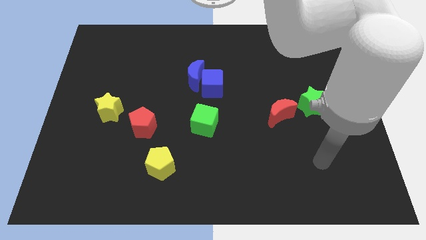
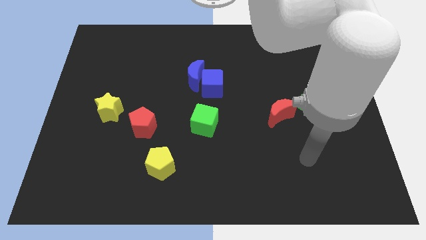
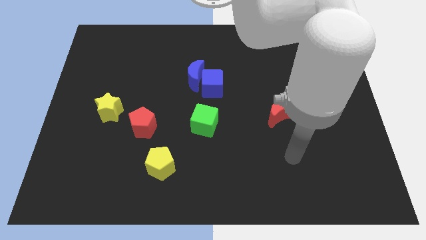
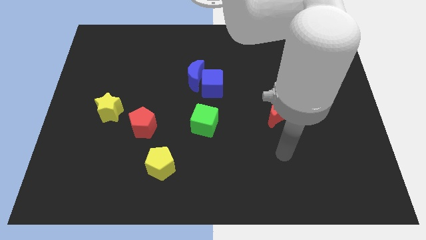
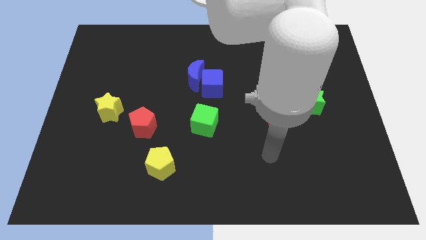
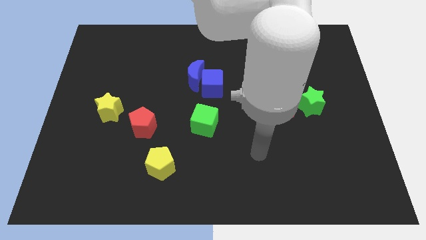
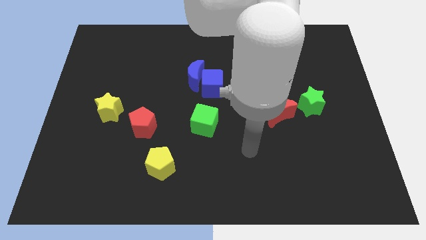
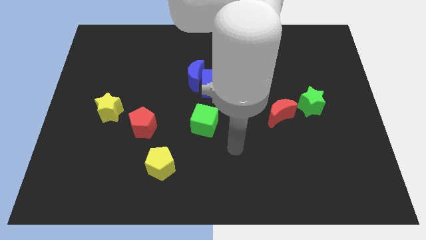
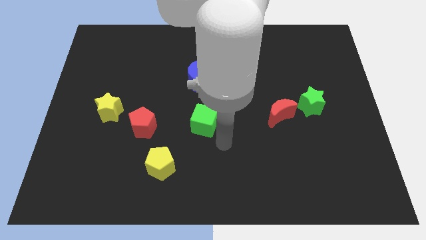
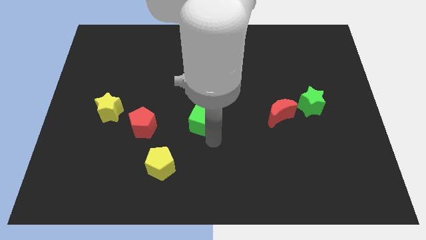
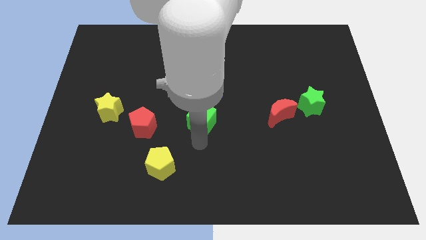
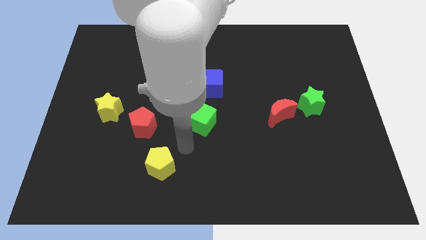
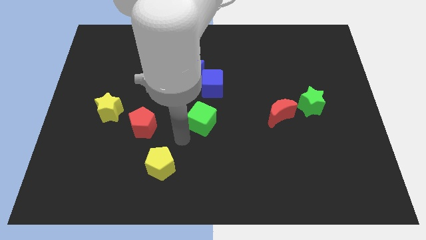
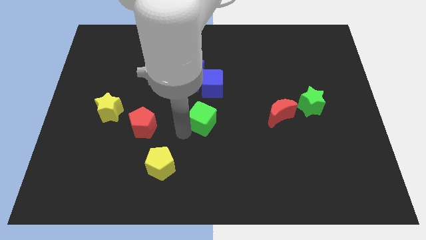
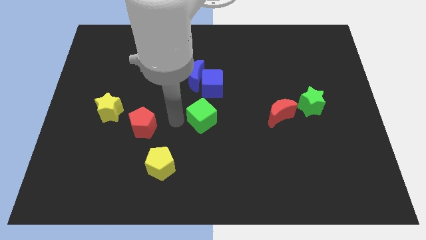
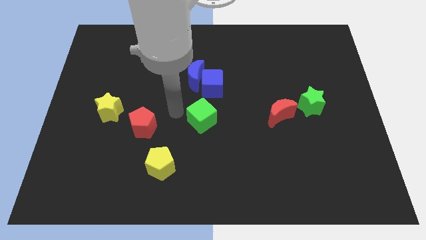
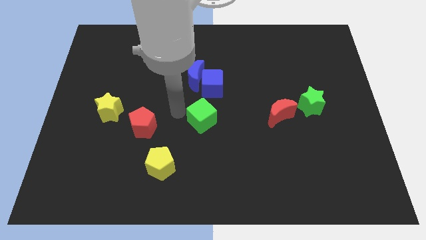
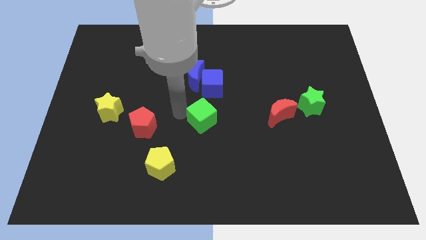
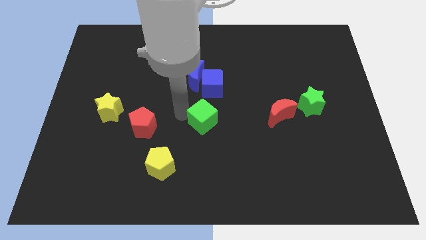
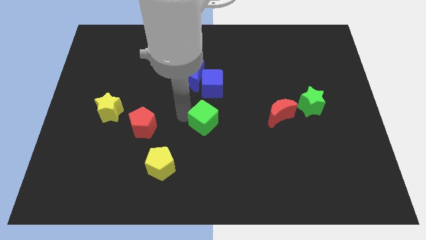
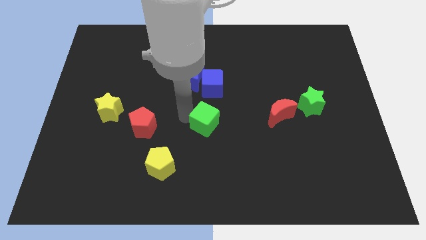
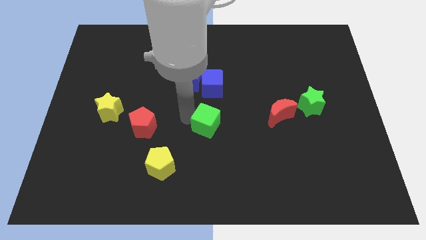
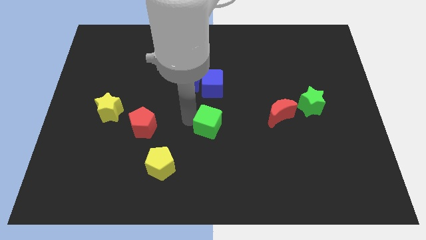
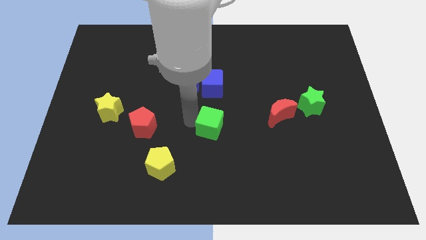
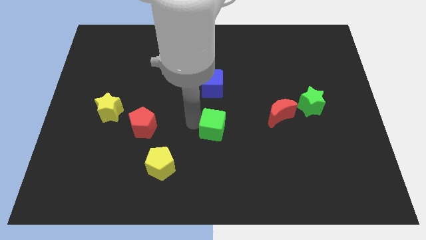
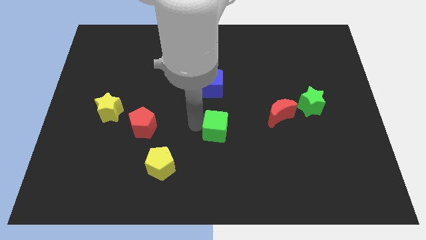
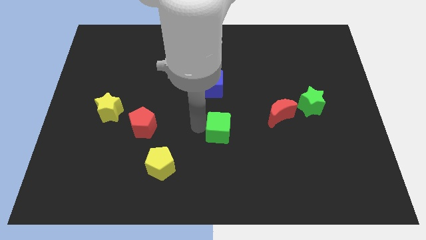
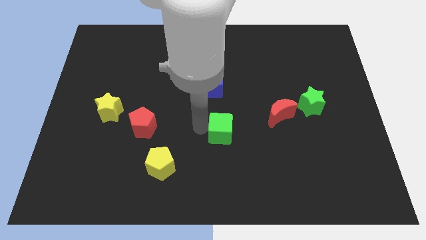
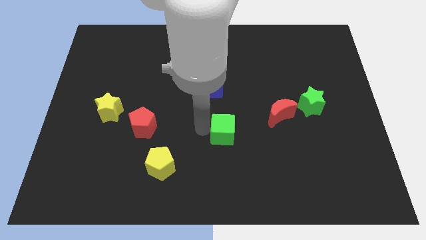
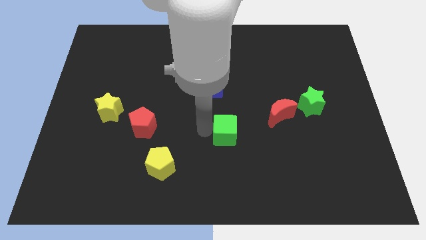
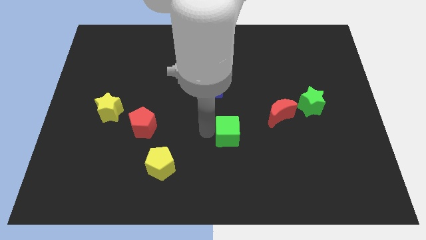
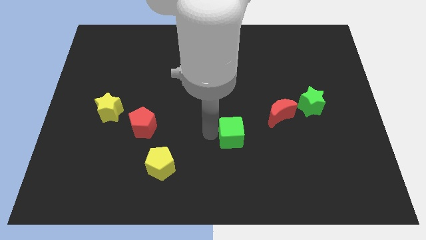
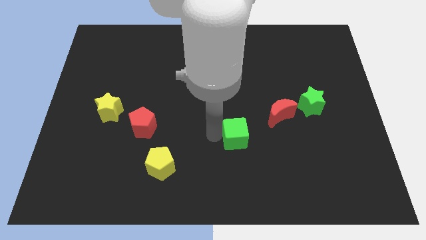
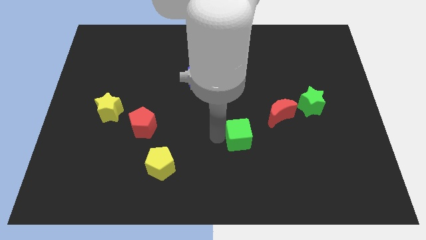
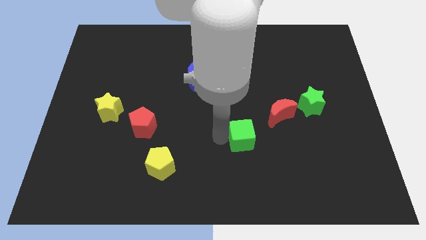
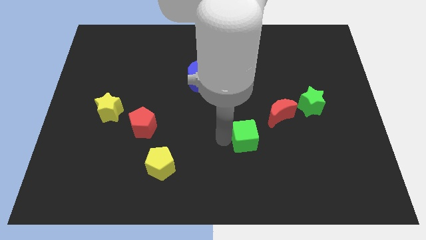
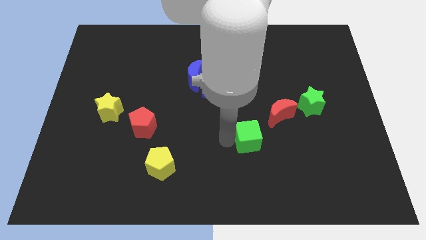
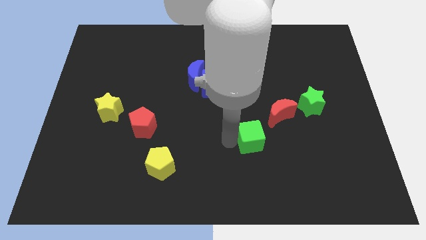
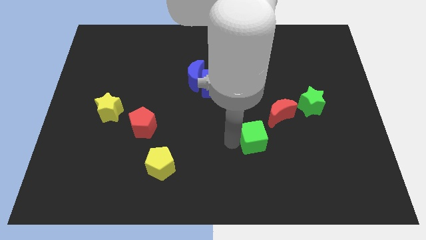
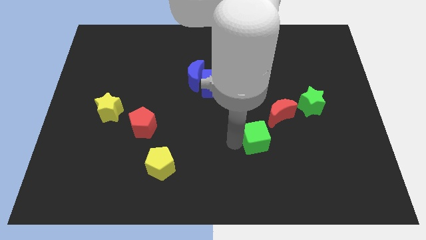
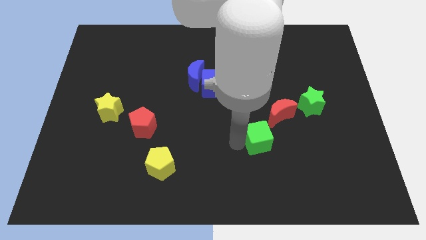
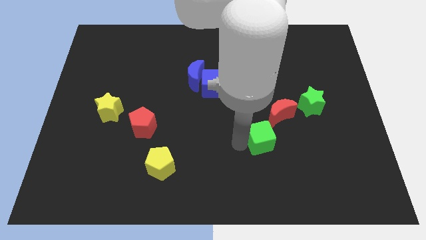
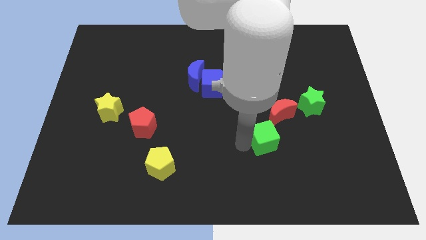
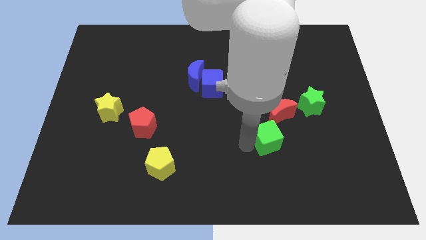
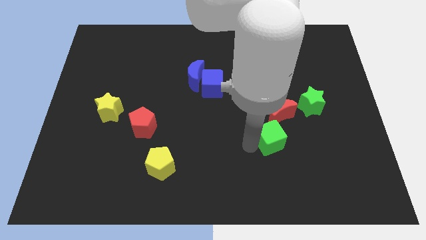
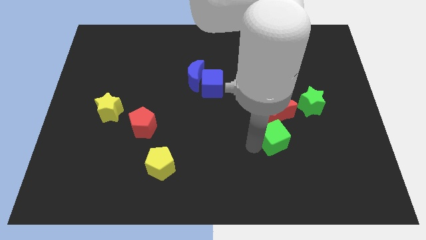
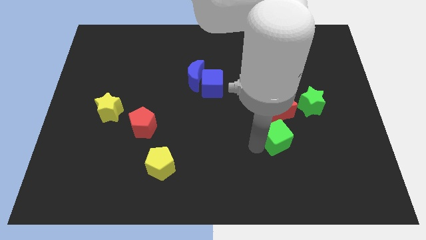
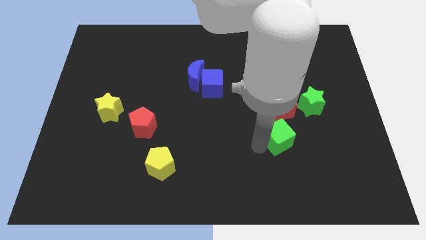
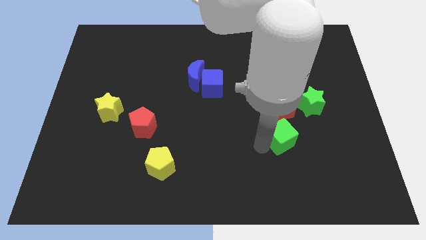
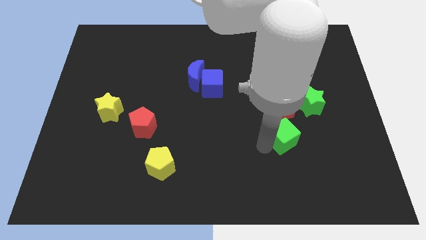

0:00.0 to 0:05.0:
push the green cube to the bottom right of the red moon

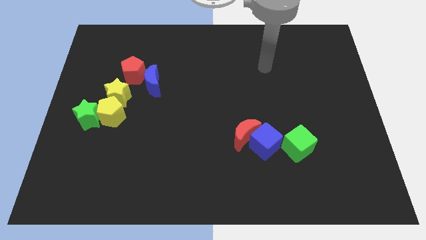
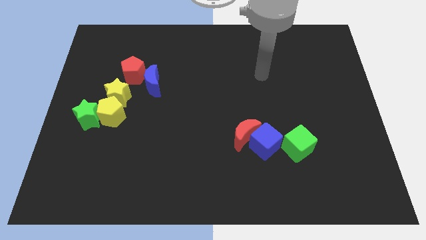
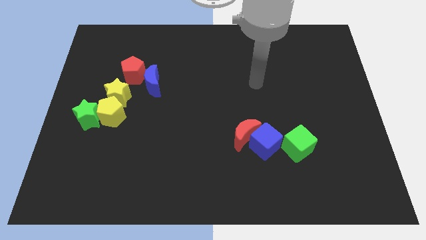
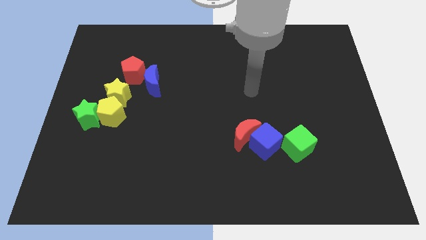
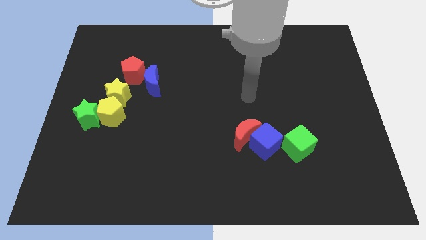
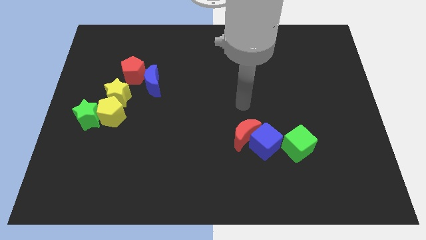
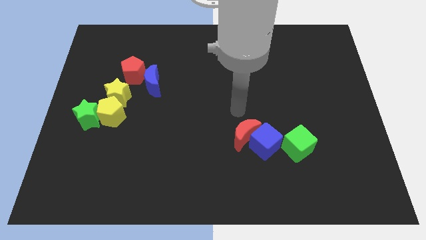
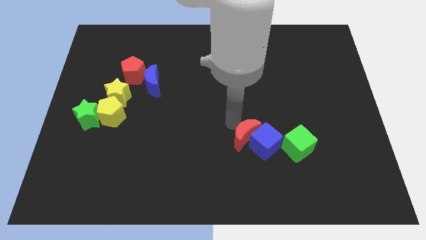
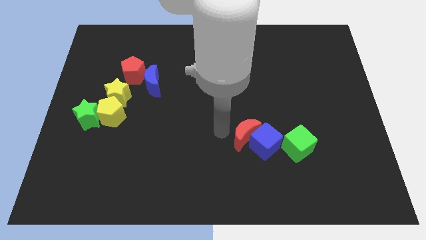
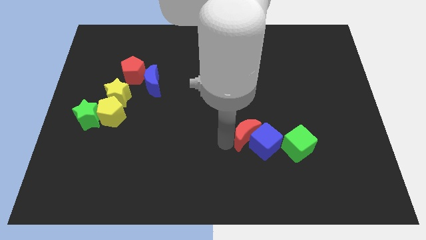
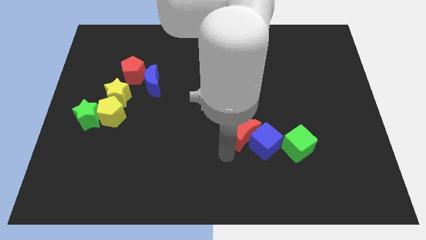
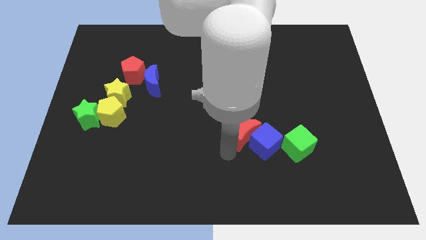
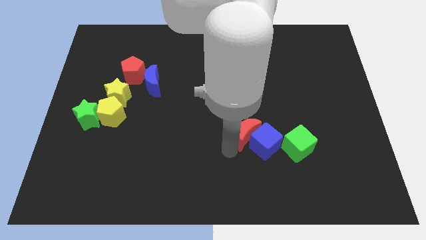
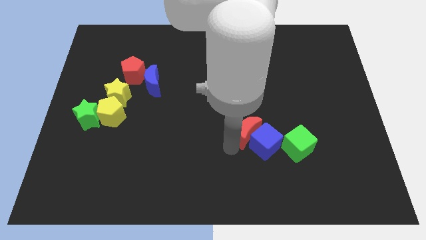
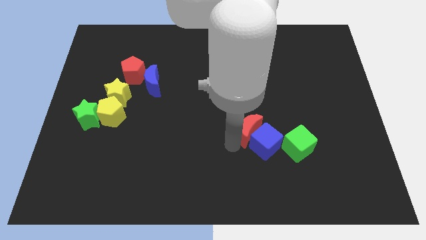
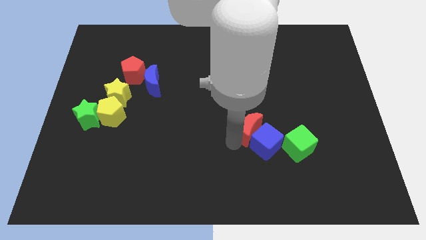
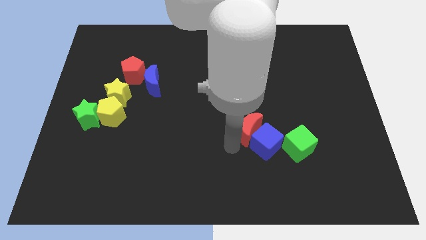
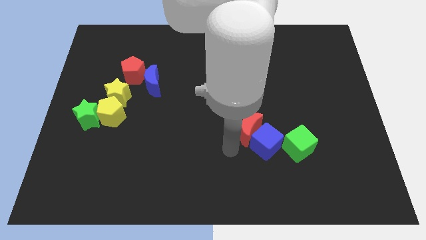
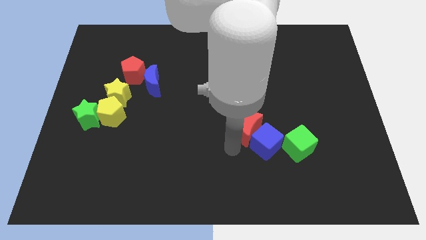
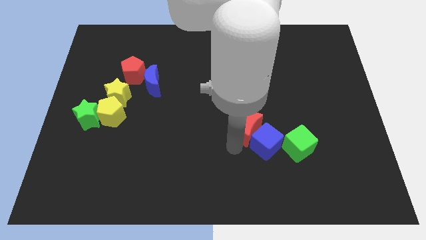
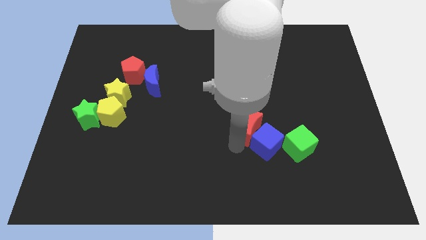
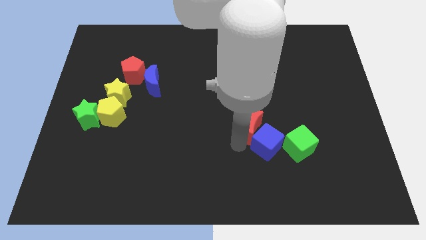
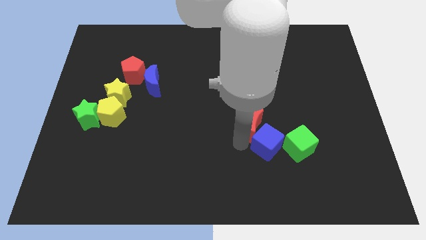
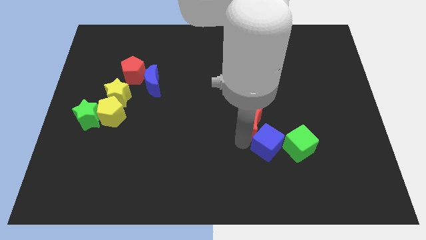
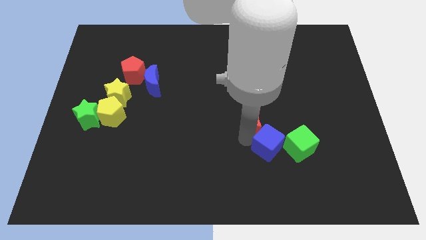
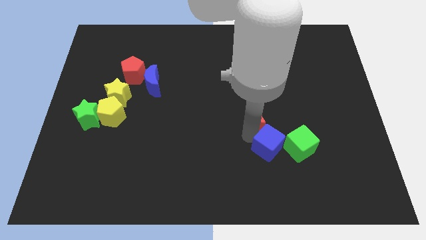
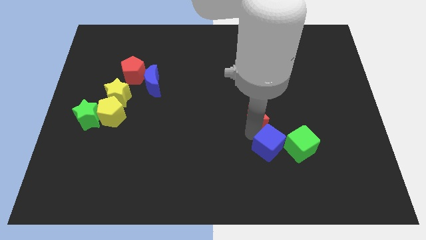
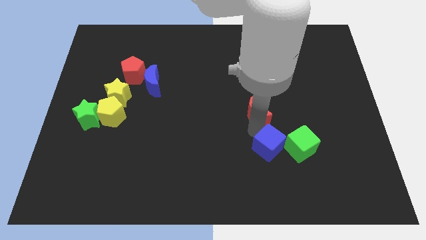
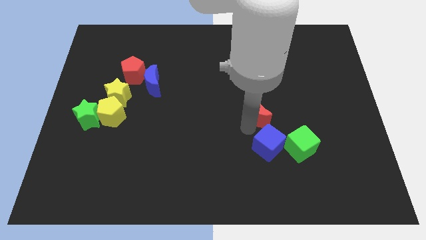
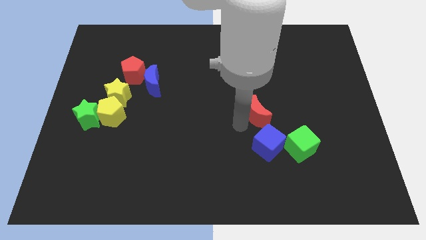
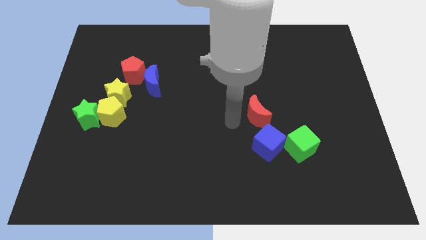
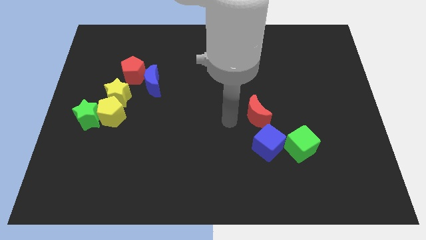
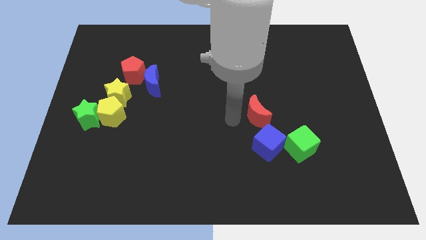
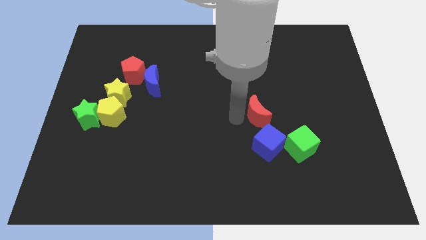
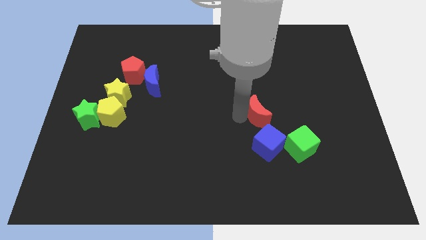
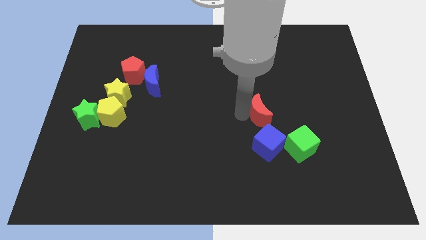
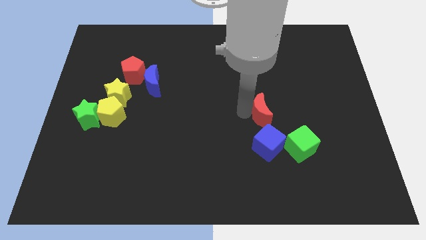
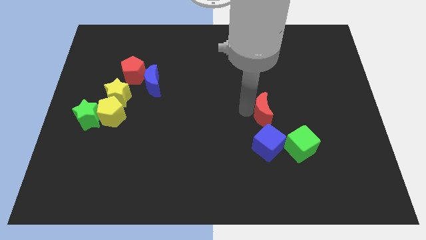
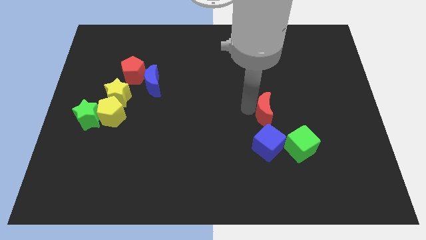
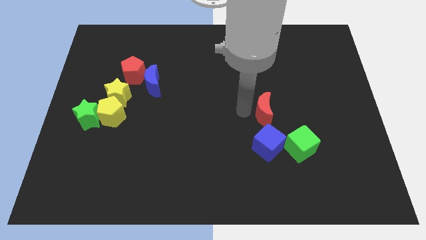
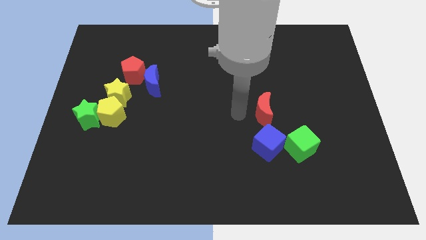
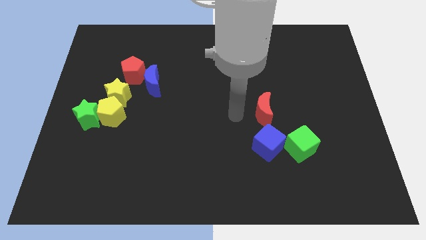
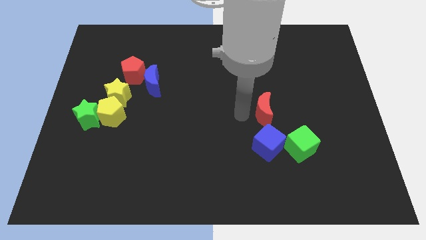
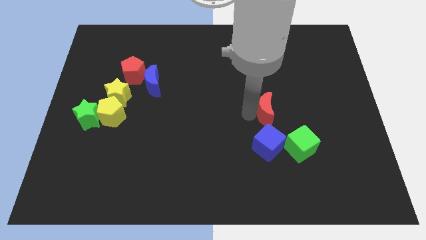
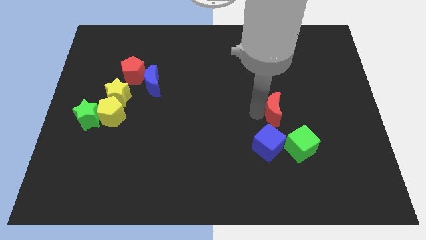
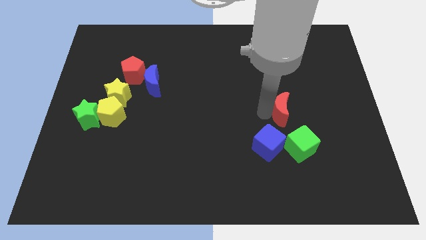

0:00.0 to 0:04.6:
push the red moon to the top side of the green cube
